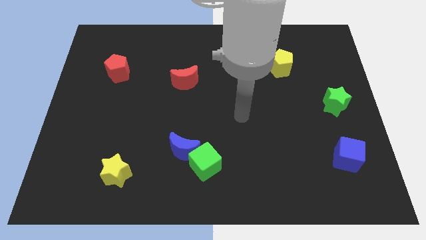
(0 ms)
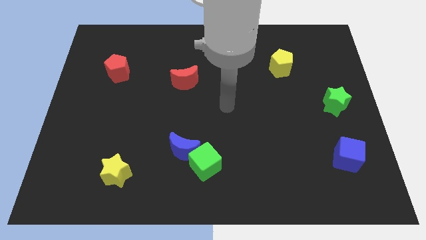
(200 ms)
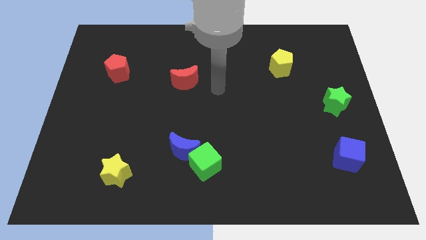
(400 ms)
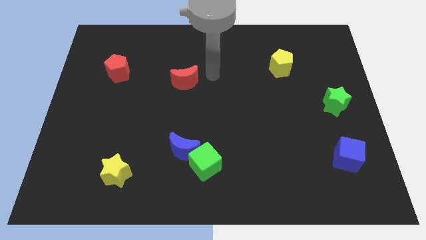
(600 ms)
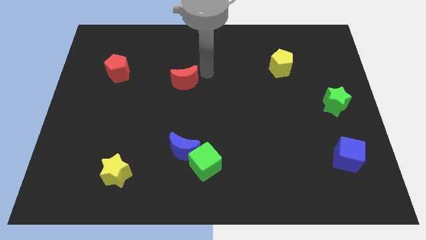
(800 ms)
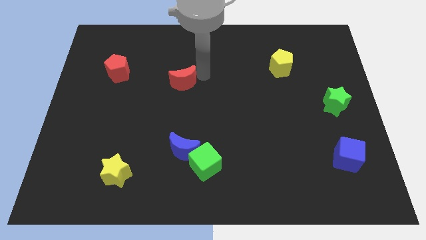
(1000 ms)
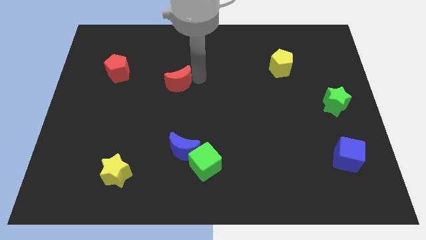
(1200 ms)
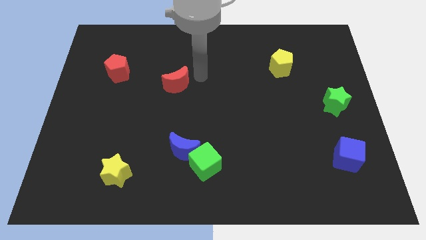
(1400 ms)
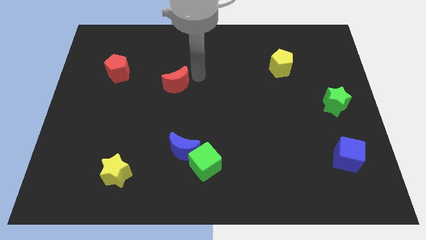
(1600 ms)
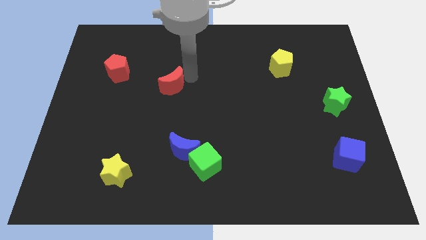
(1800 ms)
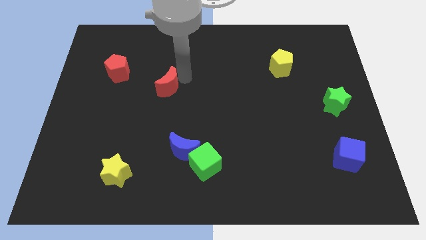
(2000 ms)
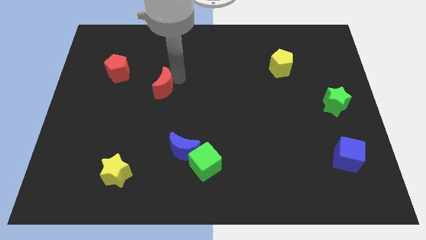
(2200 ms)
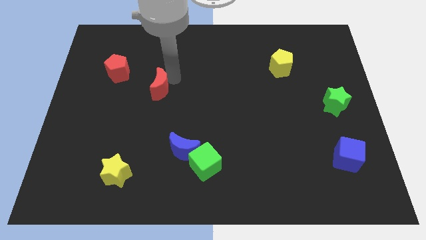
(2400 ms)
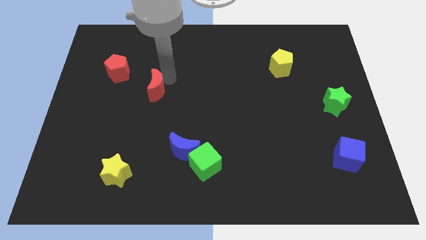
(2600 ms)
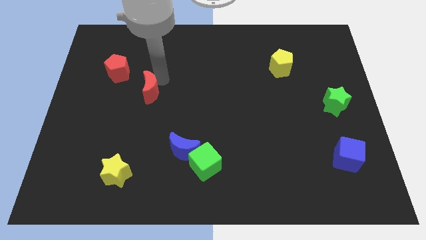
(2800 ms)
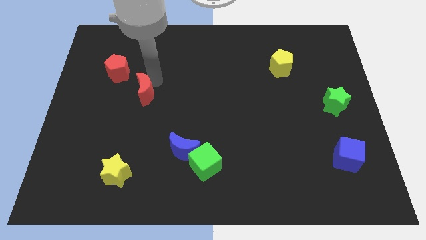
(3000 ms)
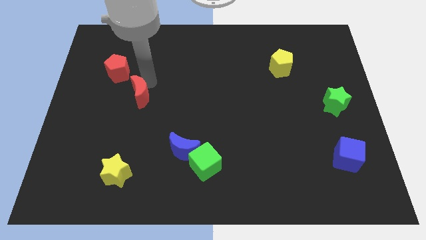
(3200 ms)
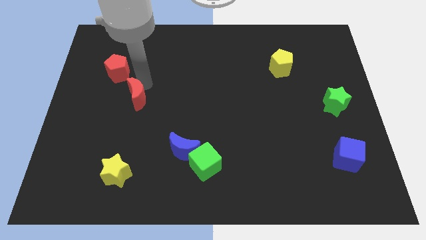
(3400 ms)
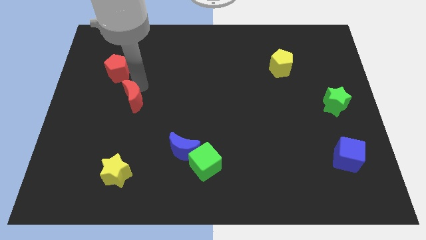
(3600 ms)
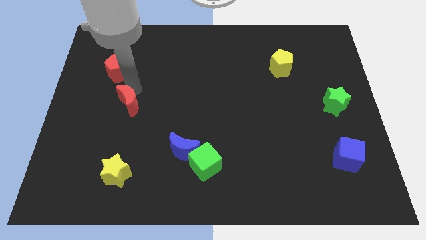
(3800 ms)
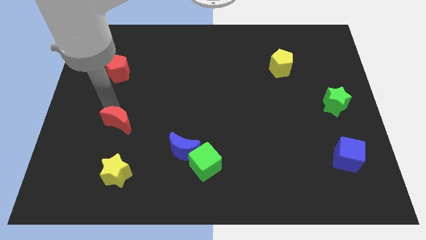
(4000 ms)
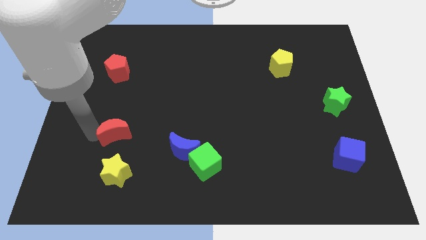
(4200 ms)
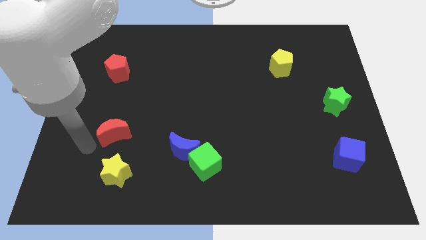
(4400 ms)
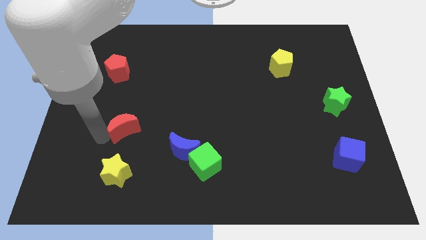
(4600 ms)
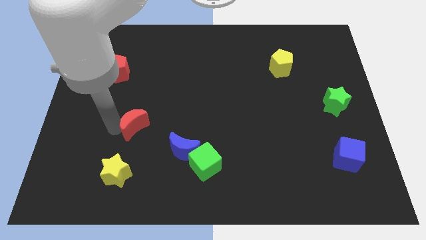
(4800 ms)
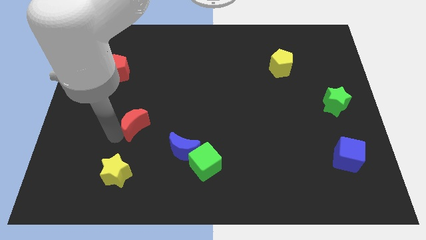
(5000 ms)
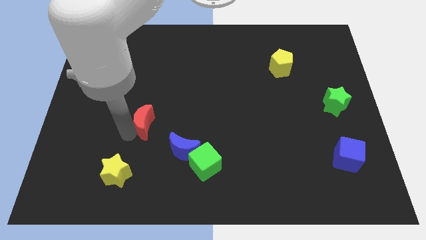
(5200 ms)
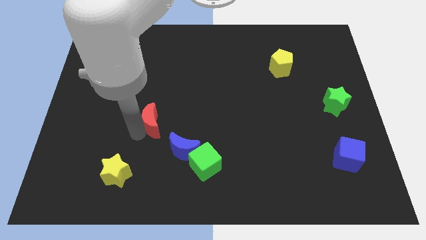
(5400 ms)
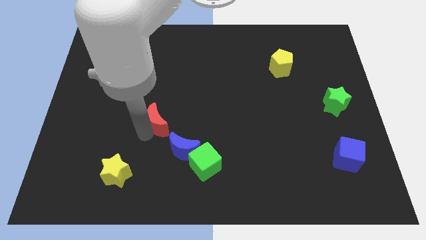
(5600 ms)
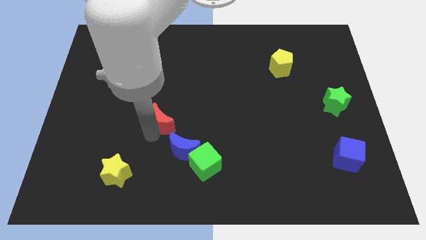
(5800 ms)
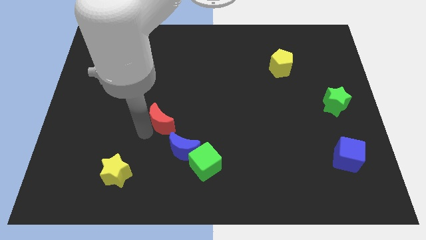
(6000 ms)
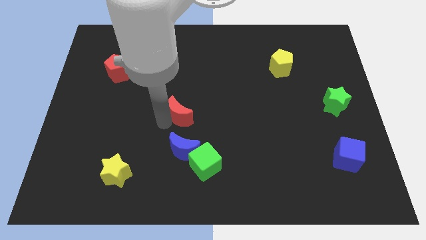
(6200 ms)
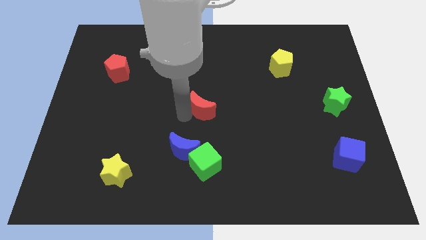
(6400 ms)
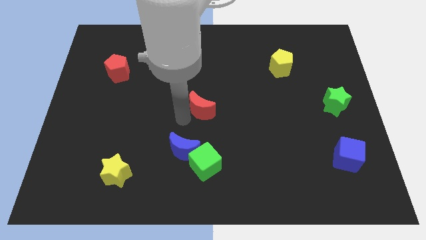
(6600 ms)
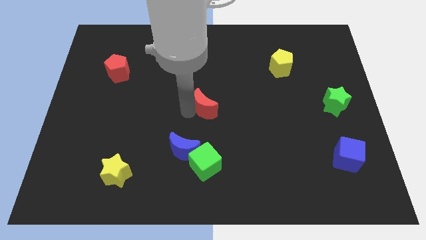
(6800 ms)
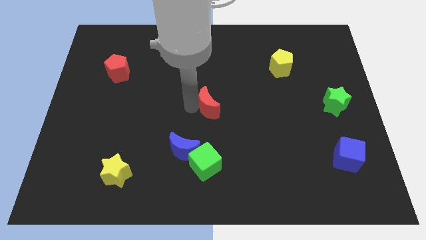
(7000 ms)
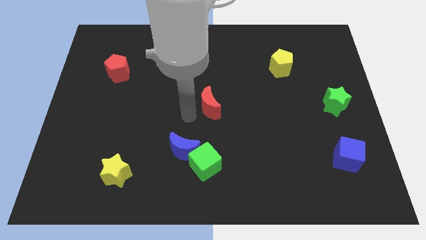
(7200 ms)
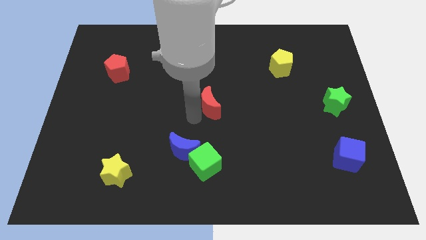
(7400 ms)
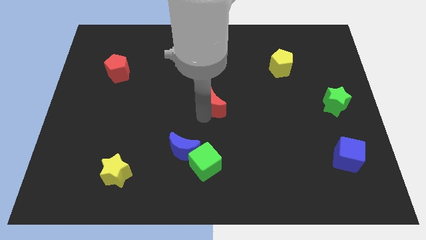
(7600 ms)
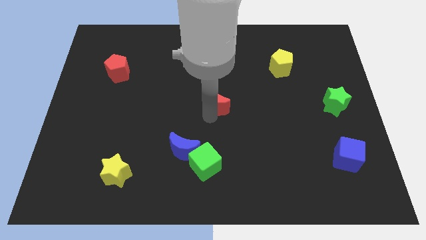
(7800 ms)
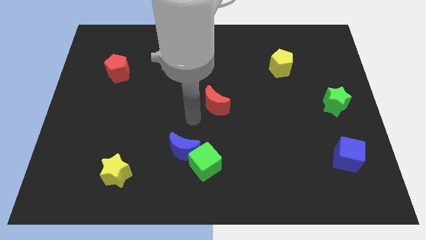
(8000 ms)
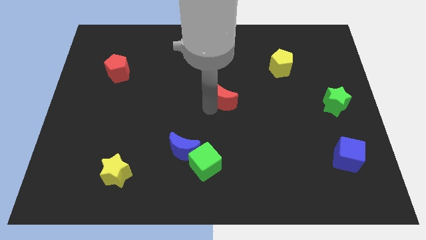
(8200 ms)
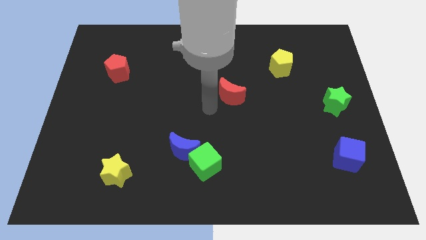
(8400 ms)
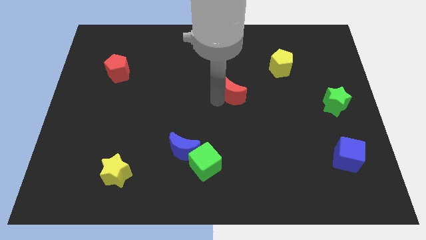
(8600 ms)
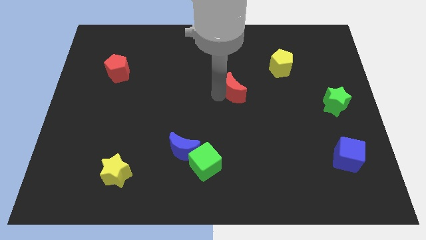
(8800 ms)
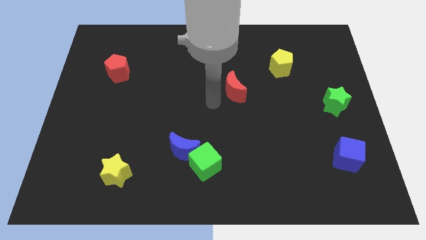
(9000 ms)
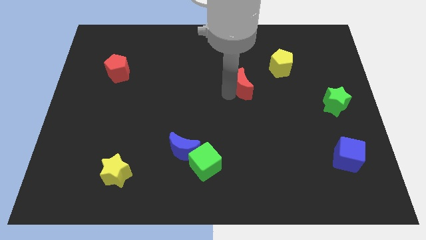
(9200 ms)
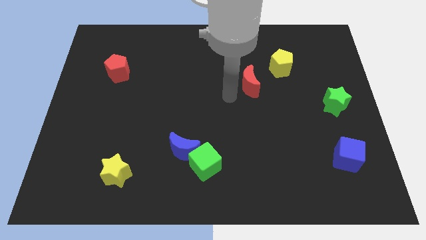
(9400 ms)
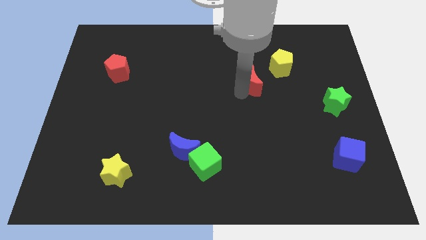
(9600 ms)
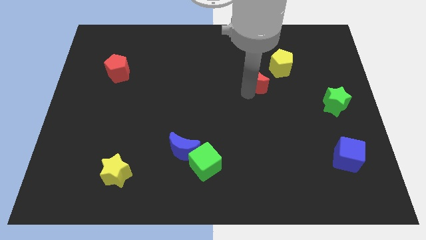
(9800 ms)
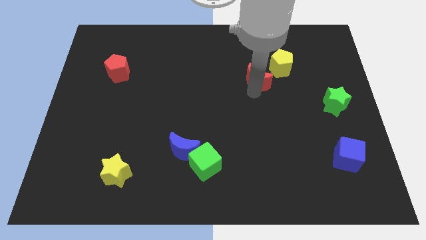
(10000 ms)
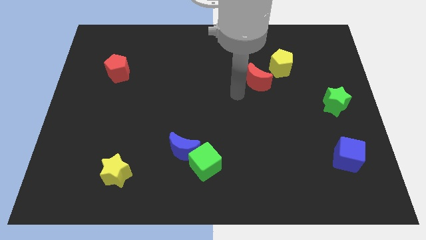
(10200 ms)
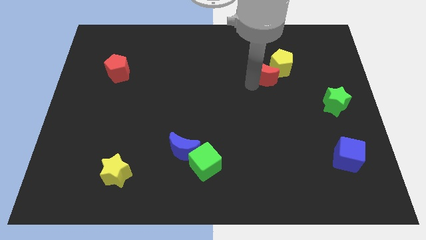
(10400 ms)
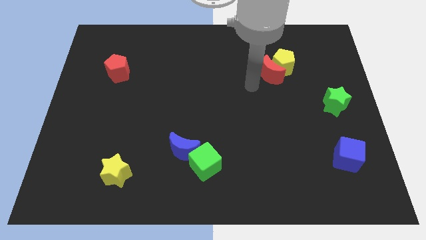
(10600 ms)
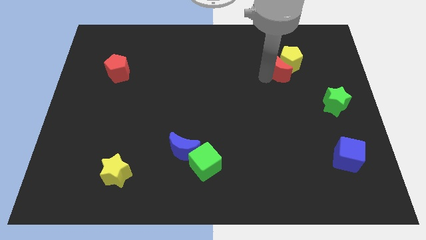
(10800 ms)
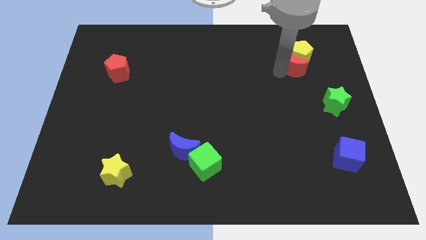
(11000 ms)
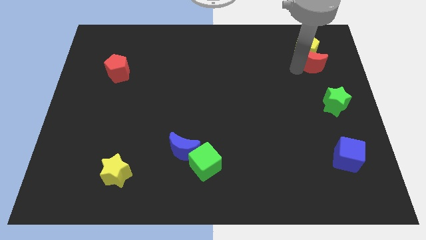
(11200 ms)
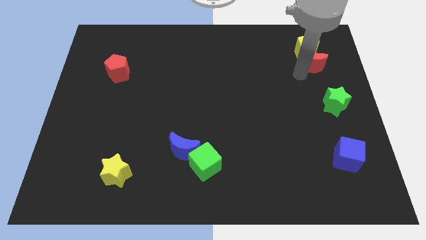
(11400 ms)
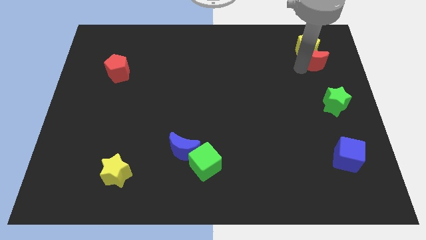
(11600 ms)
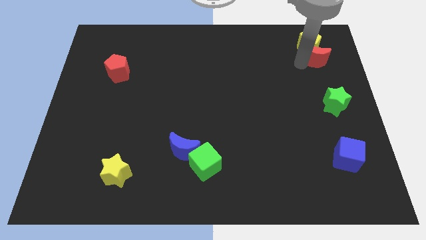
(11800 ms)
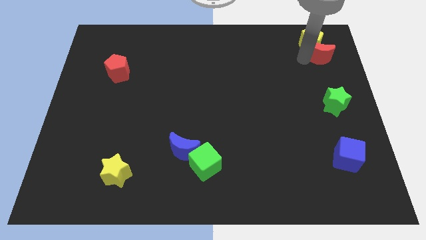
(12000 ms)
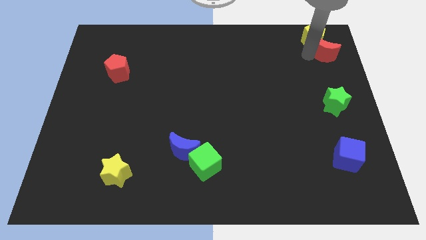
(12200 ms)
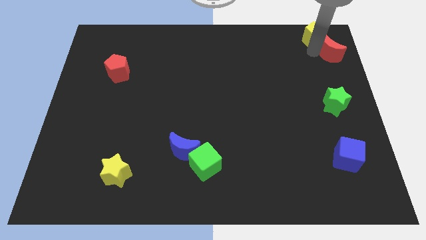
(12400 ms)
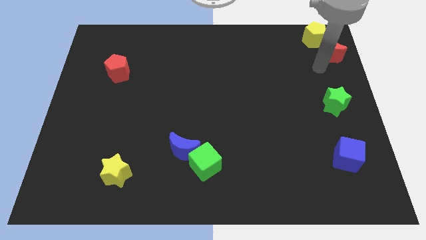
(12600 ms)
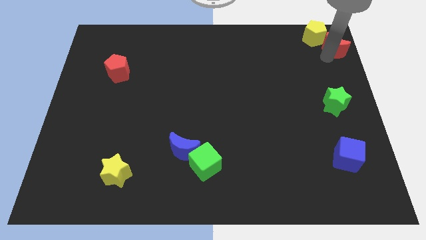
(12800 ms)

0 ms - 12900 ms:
push the red moon to the top right of the board

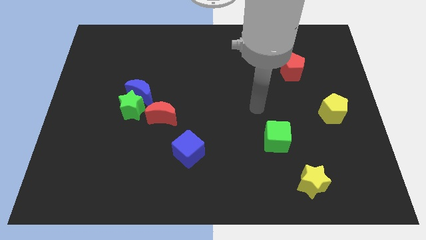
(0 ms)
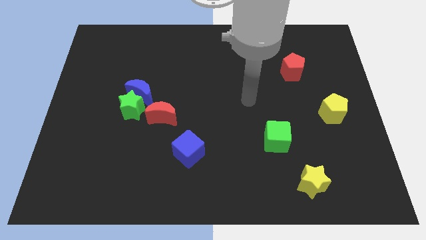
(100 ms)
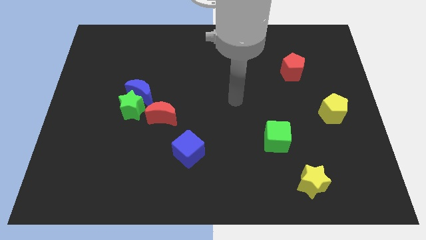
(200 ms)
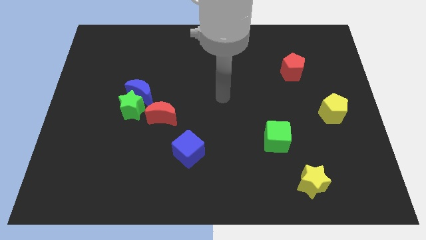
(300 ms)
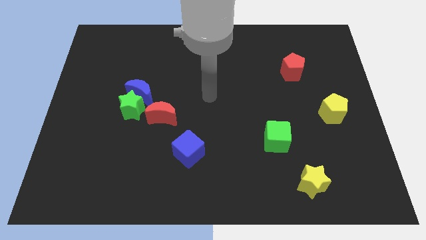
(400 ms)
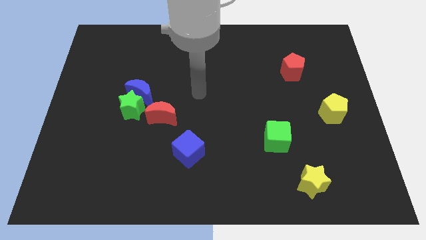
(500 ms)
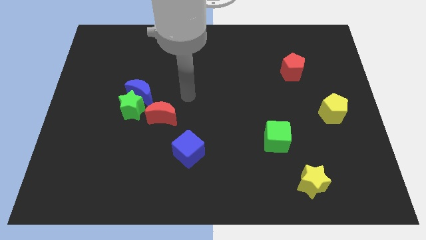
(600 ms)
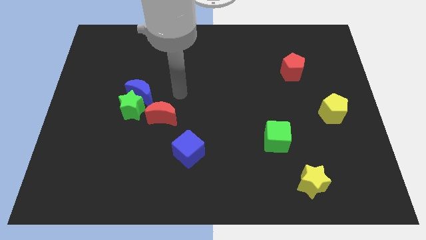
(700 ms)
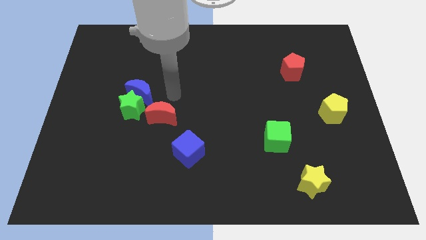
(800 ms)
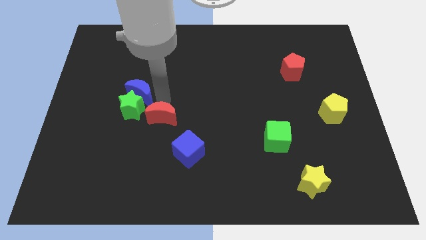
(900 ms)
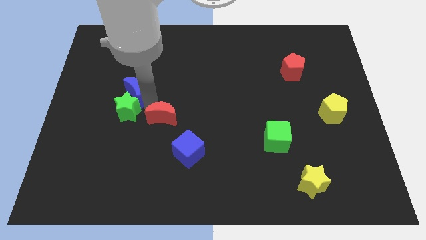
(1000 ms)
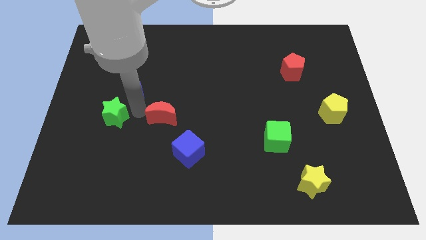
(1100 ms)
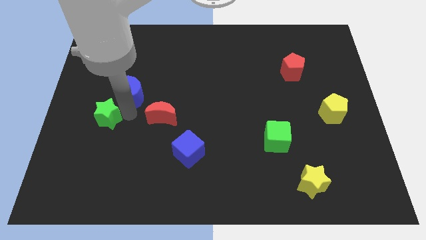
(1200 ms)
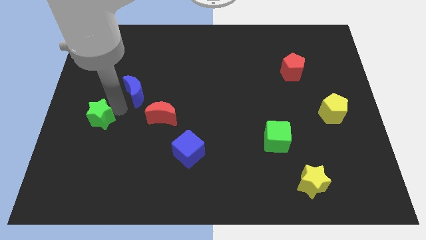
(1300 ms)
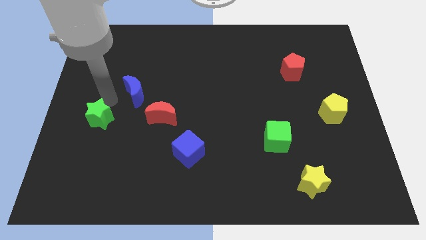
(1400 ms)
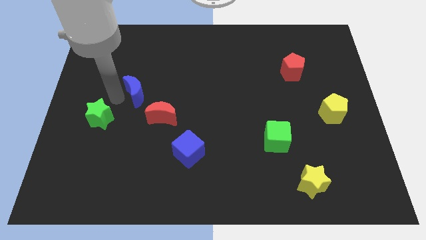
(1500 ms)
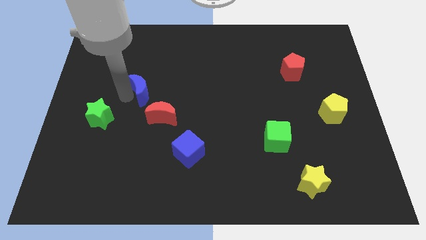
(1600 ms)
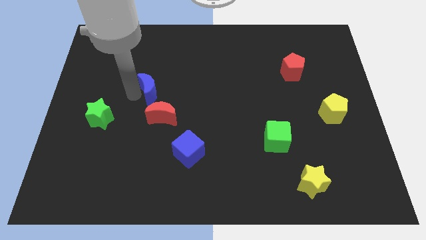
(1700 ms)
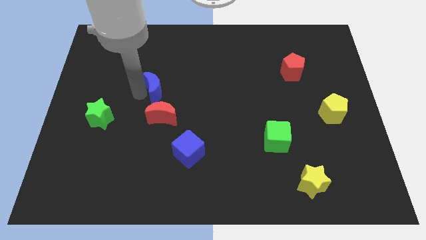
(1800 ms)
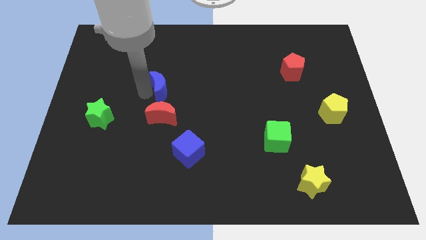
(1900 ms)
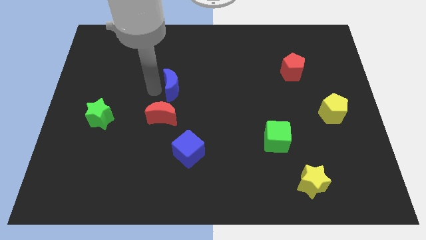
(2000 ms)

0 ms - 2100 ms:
slide the blue moon to the center
